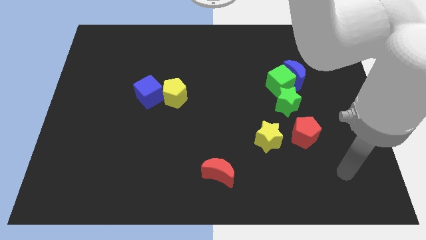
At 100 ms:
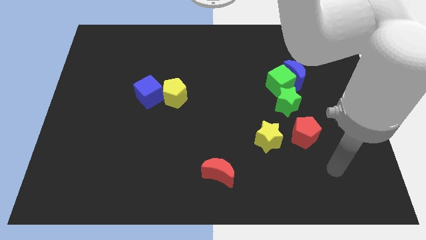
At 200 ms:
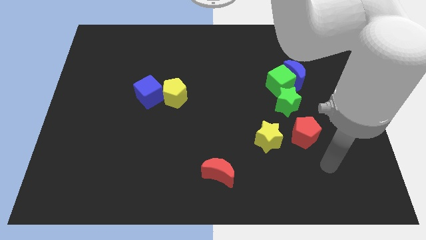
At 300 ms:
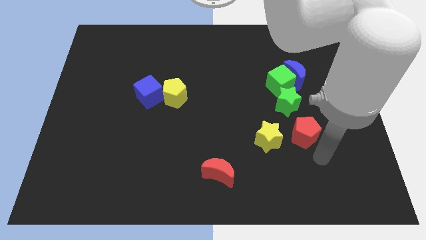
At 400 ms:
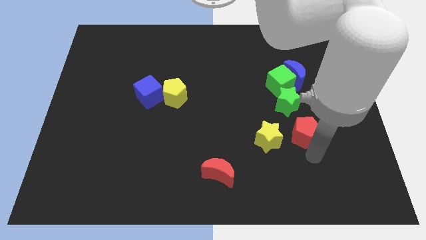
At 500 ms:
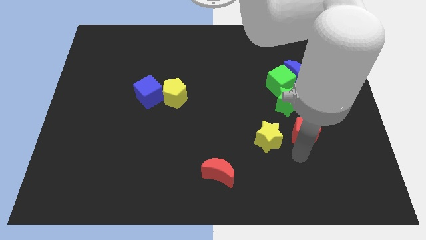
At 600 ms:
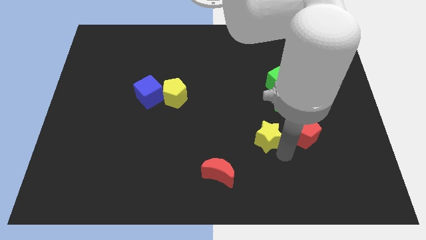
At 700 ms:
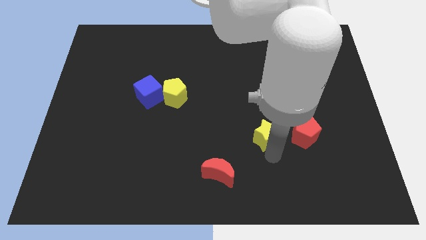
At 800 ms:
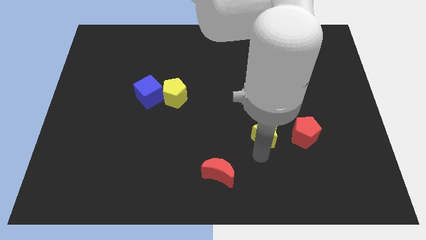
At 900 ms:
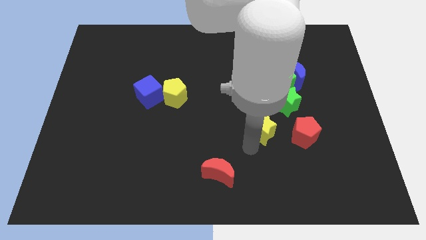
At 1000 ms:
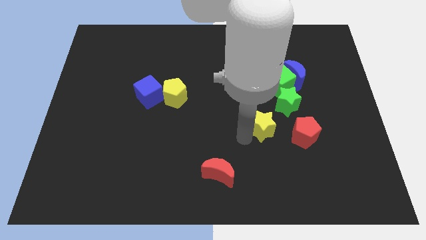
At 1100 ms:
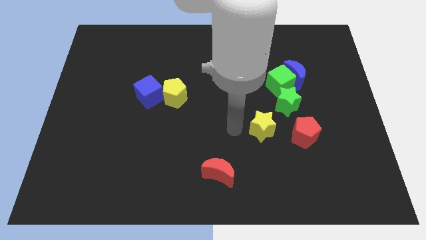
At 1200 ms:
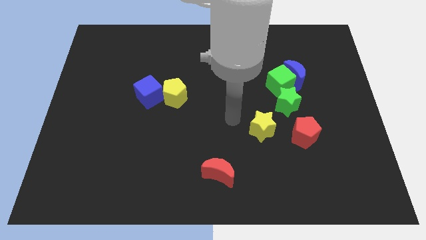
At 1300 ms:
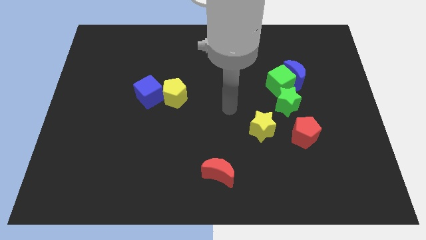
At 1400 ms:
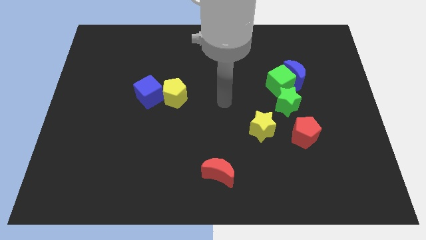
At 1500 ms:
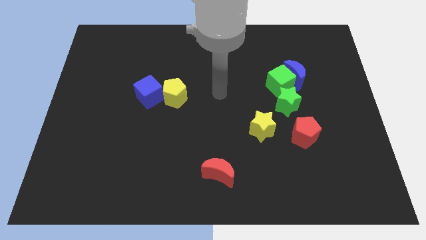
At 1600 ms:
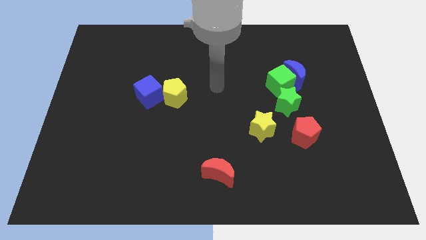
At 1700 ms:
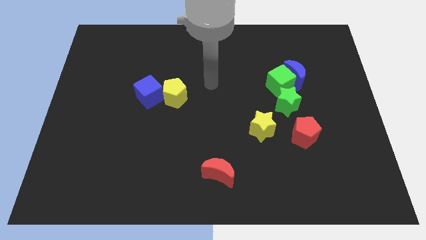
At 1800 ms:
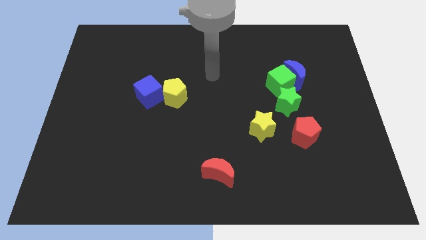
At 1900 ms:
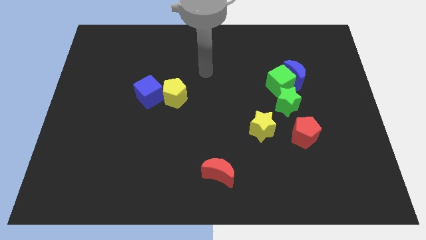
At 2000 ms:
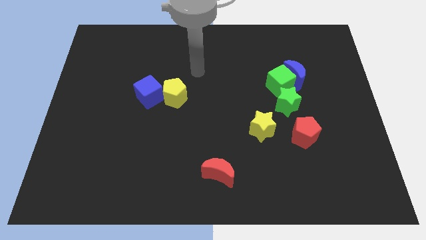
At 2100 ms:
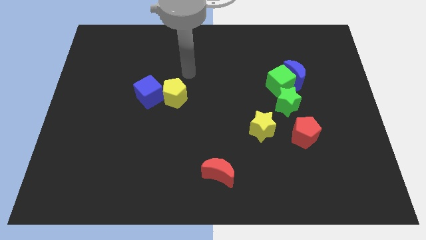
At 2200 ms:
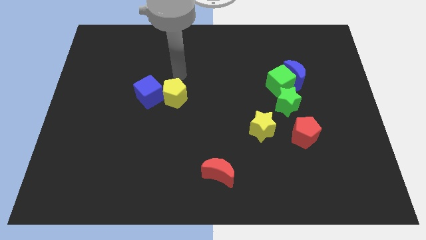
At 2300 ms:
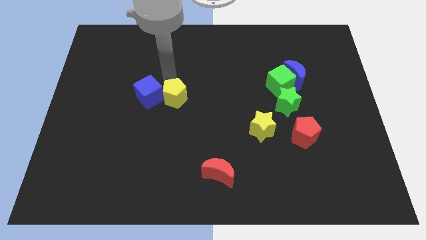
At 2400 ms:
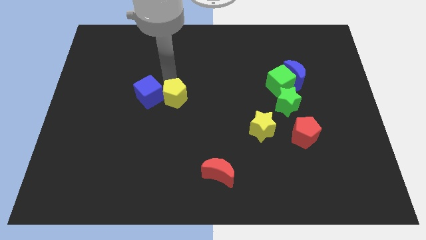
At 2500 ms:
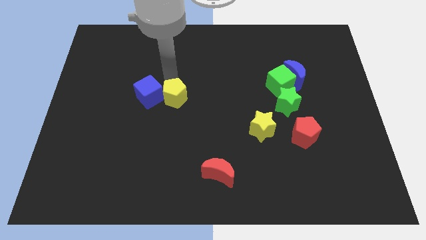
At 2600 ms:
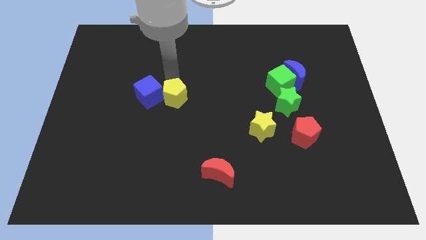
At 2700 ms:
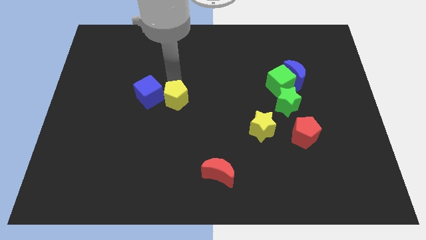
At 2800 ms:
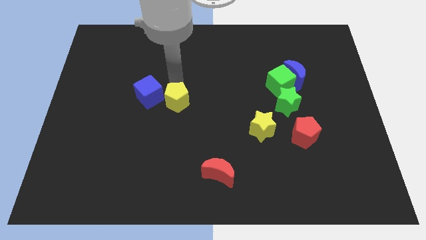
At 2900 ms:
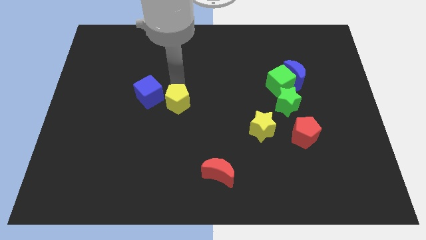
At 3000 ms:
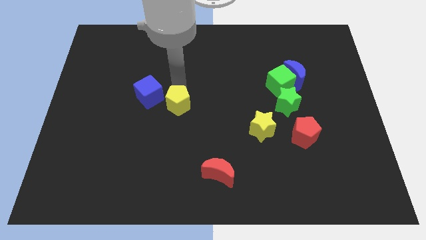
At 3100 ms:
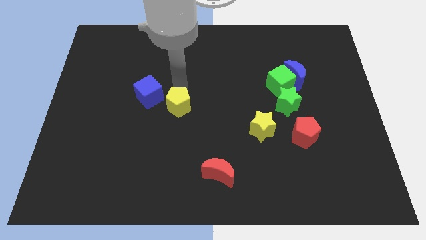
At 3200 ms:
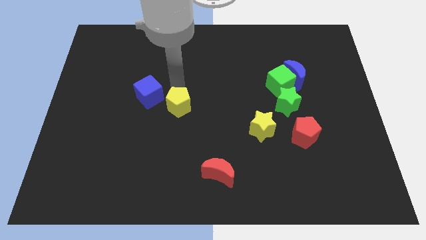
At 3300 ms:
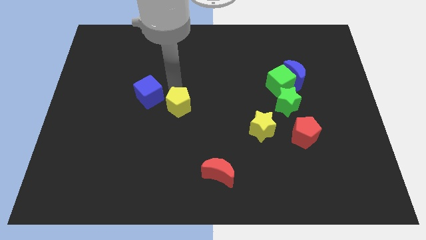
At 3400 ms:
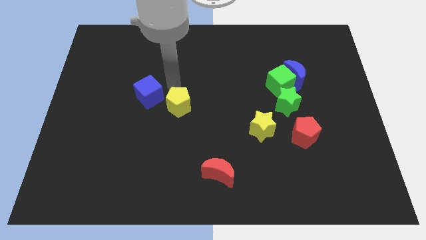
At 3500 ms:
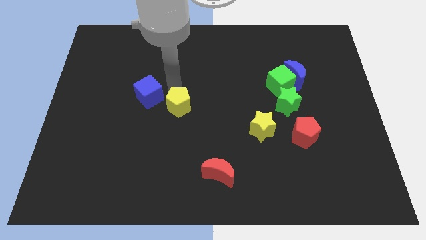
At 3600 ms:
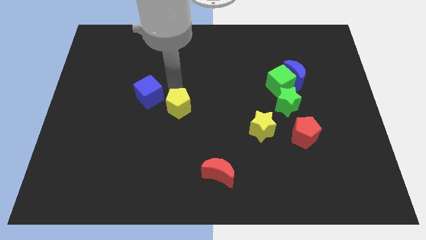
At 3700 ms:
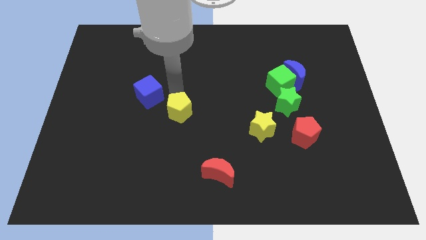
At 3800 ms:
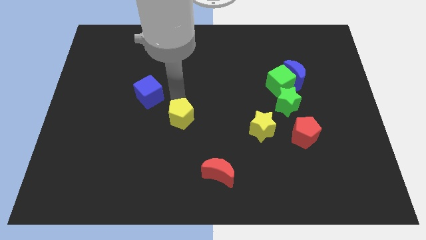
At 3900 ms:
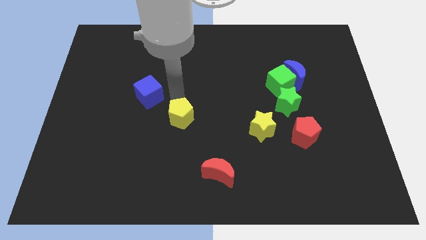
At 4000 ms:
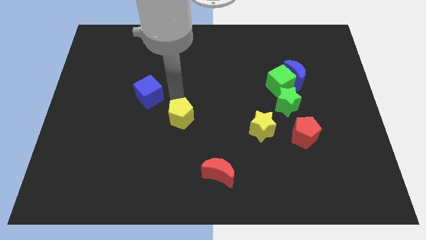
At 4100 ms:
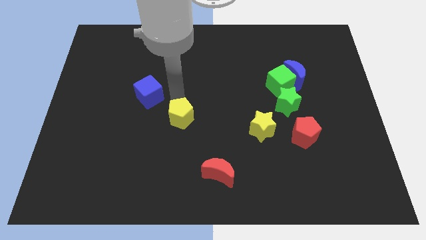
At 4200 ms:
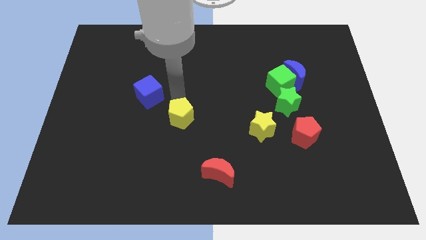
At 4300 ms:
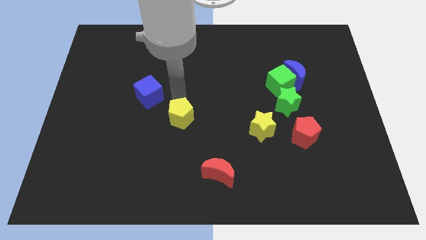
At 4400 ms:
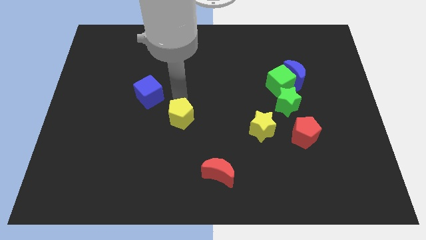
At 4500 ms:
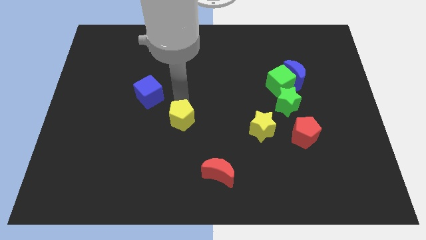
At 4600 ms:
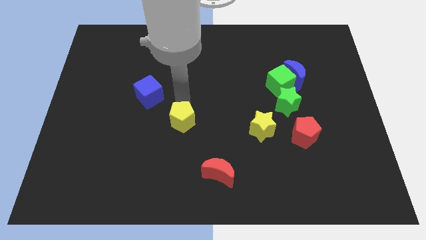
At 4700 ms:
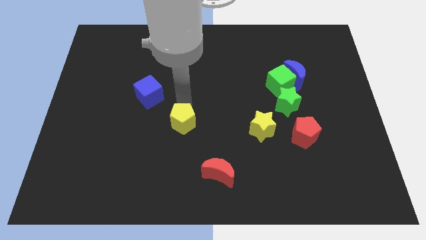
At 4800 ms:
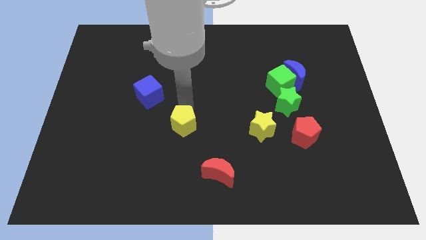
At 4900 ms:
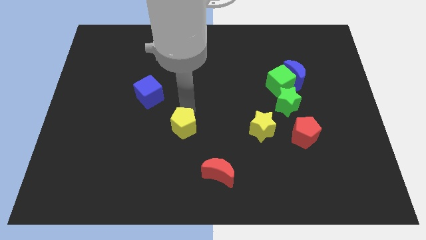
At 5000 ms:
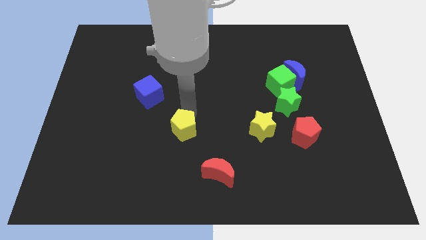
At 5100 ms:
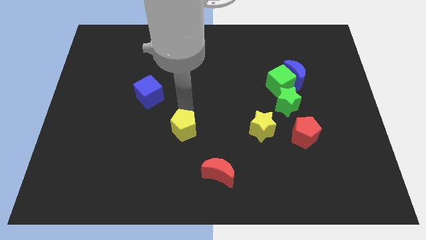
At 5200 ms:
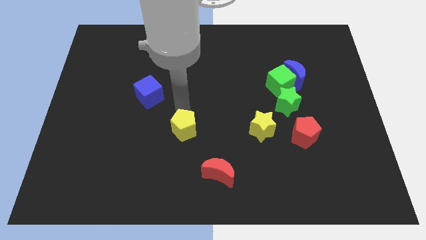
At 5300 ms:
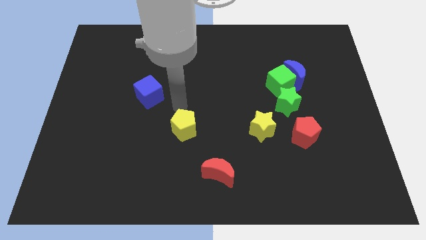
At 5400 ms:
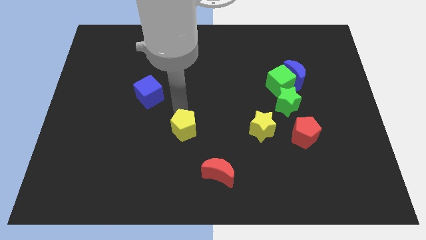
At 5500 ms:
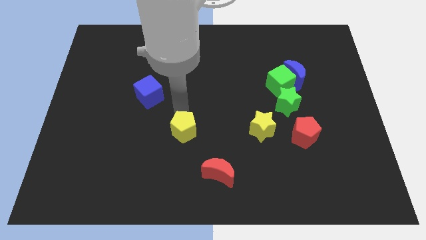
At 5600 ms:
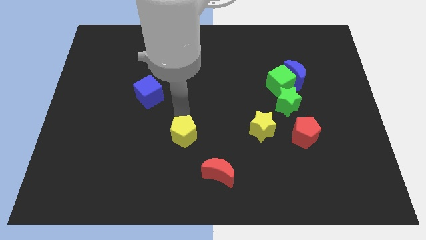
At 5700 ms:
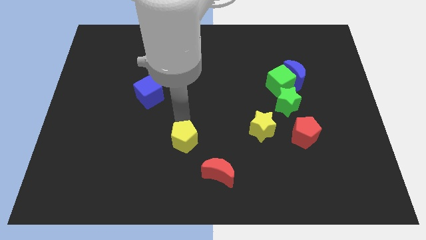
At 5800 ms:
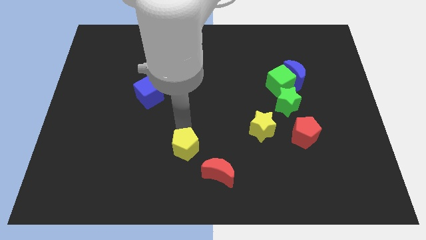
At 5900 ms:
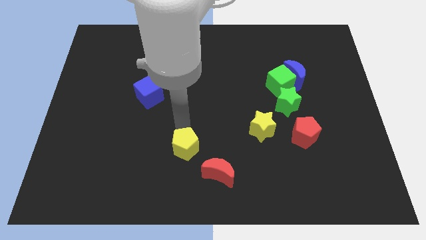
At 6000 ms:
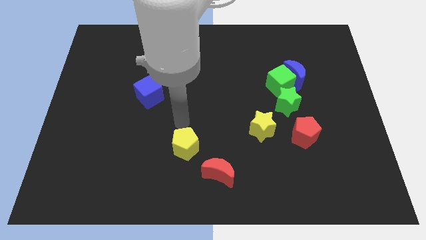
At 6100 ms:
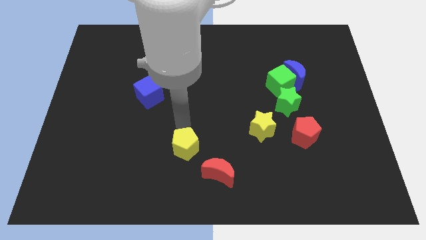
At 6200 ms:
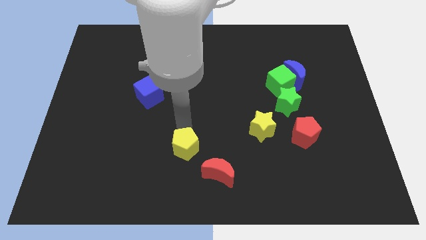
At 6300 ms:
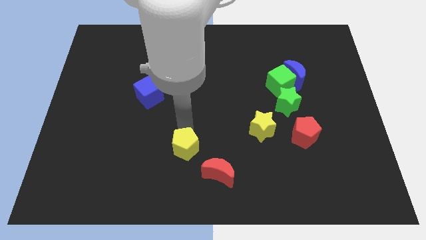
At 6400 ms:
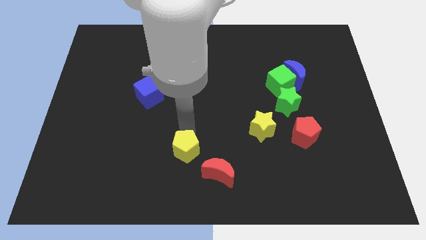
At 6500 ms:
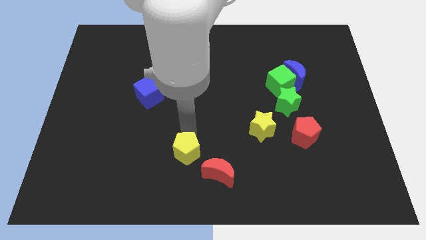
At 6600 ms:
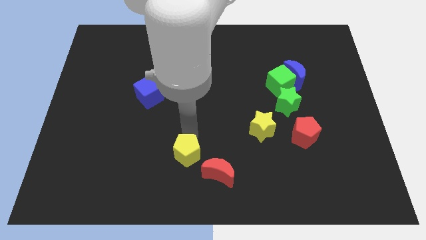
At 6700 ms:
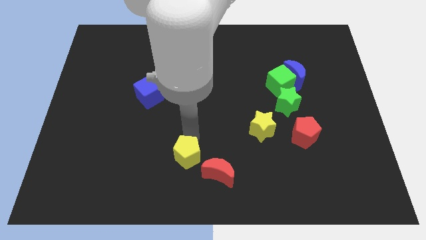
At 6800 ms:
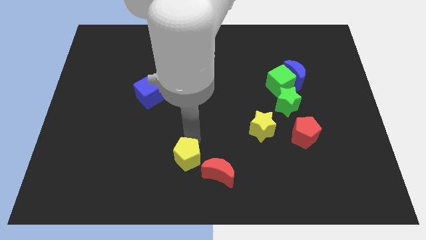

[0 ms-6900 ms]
move the yellow pentagon to the bottom
